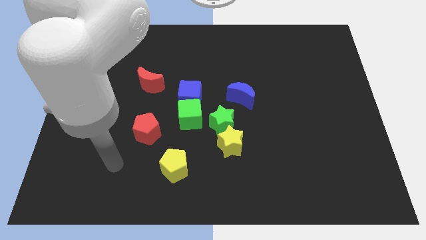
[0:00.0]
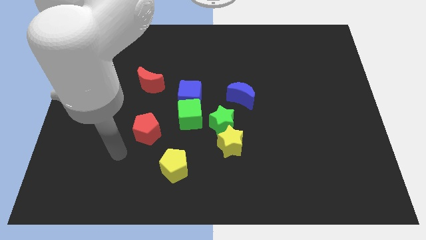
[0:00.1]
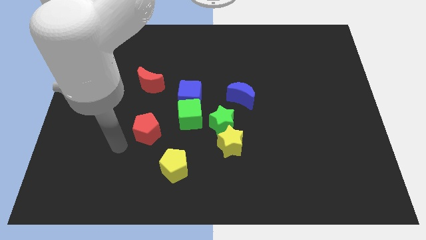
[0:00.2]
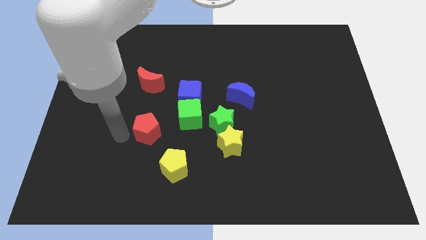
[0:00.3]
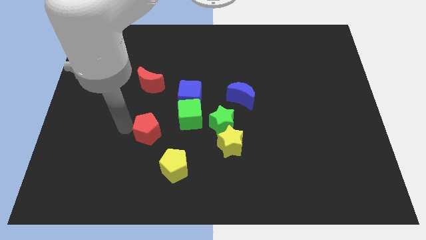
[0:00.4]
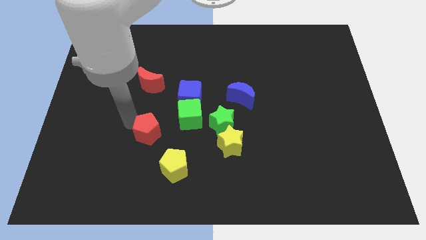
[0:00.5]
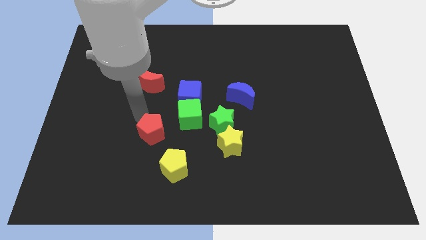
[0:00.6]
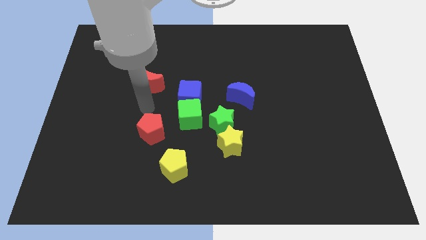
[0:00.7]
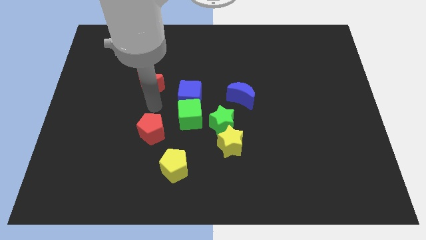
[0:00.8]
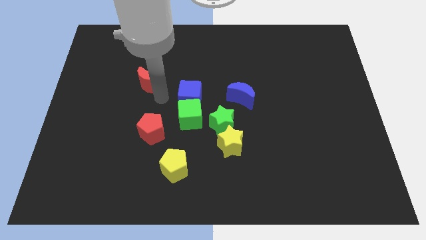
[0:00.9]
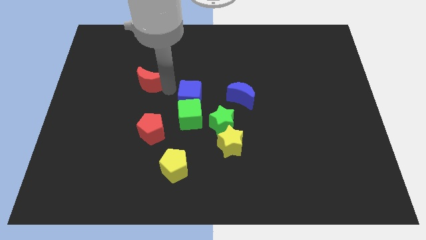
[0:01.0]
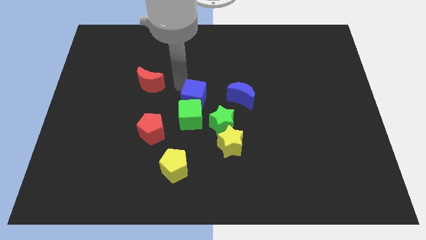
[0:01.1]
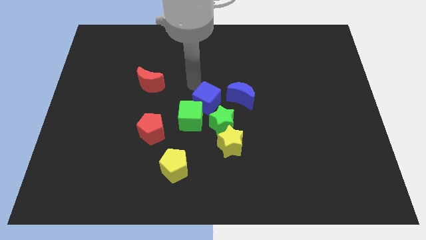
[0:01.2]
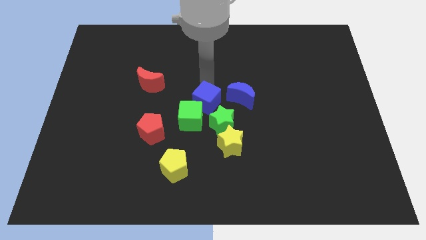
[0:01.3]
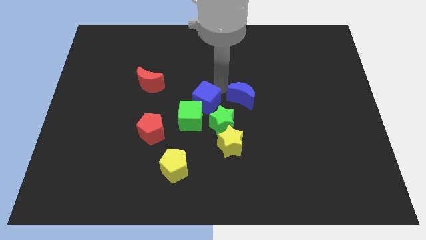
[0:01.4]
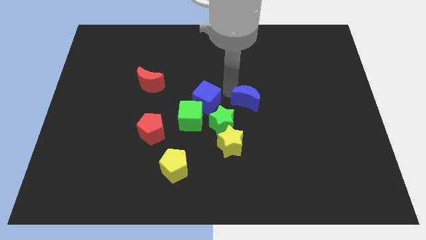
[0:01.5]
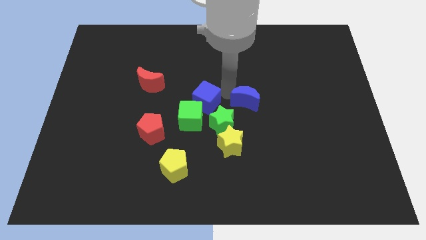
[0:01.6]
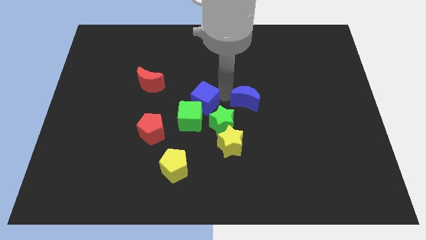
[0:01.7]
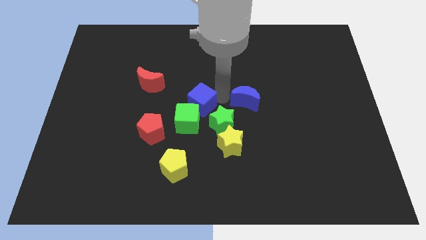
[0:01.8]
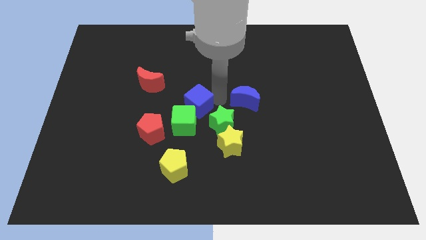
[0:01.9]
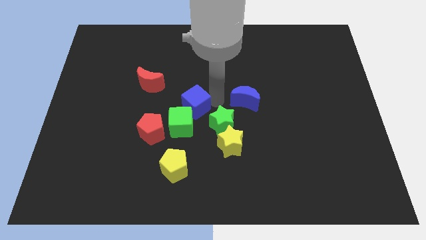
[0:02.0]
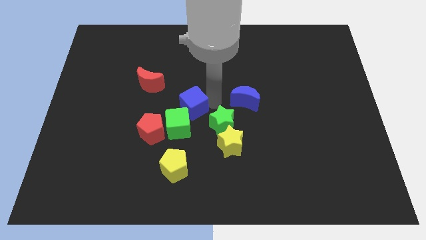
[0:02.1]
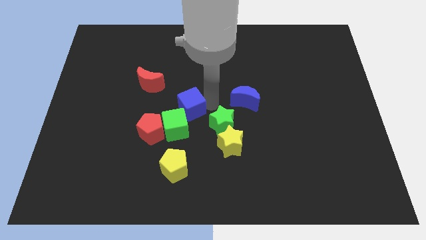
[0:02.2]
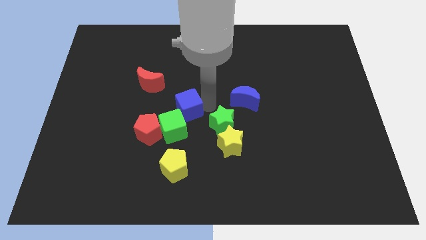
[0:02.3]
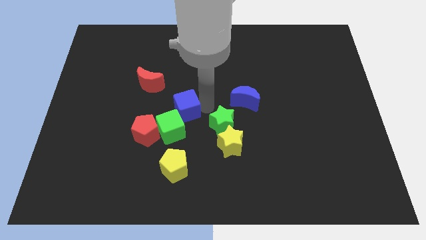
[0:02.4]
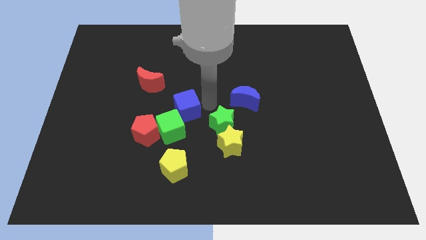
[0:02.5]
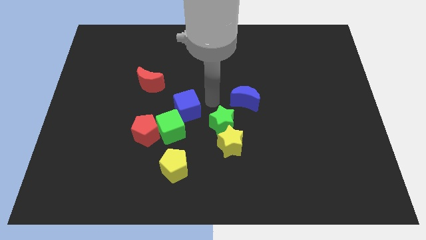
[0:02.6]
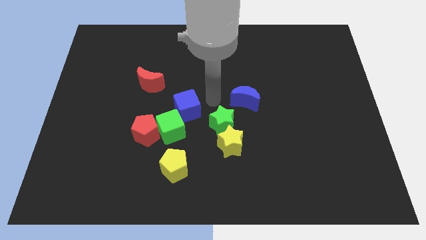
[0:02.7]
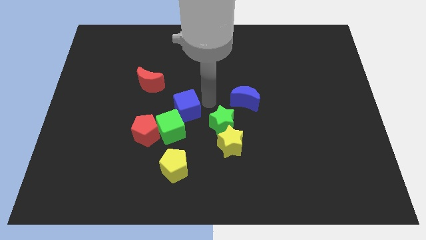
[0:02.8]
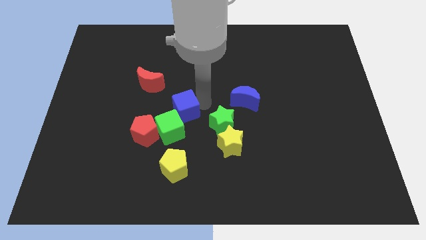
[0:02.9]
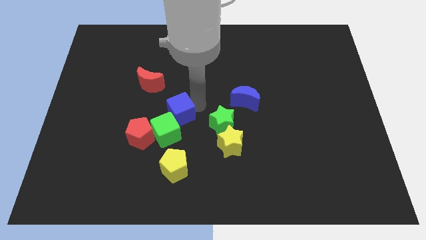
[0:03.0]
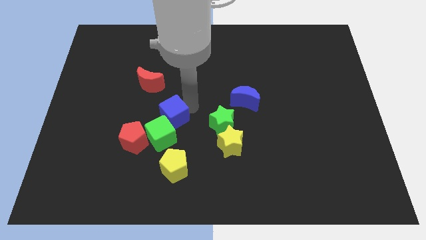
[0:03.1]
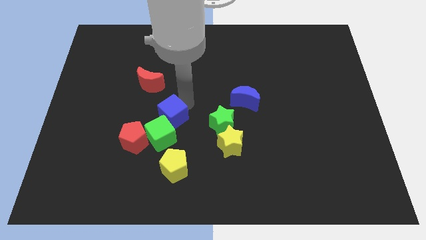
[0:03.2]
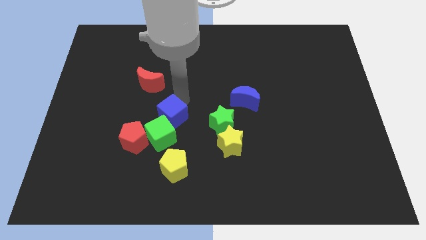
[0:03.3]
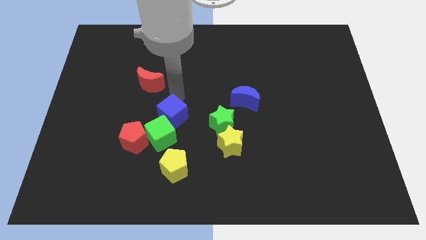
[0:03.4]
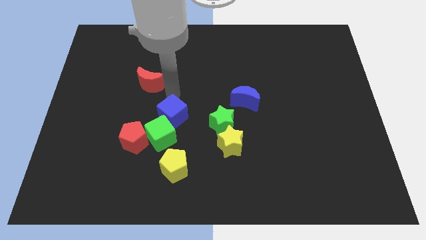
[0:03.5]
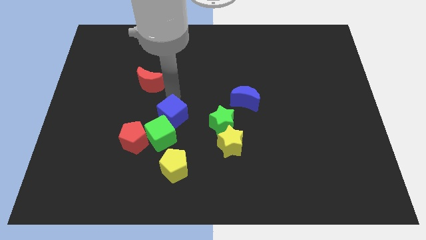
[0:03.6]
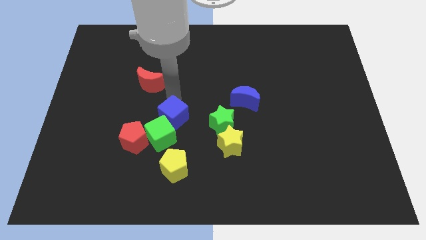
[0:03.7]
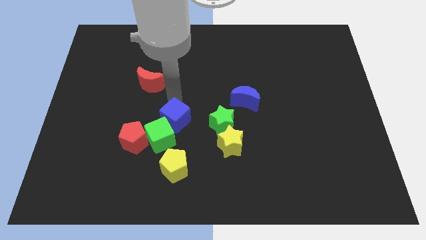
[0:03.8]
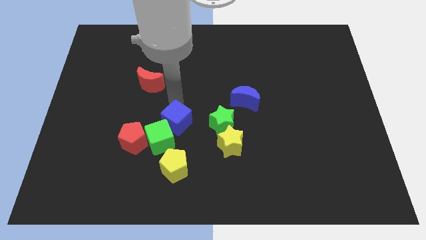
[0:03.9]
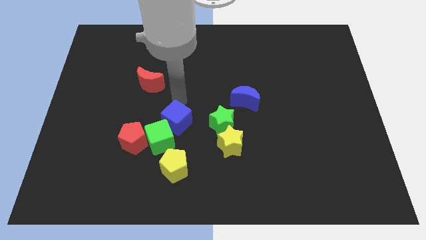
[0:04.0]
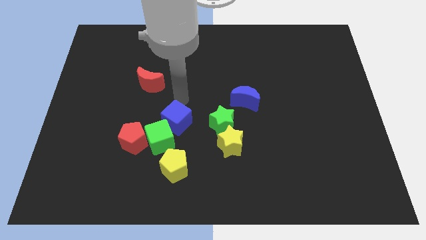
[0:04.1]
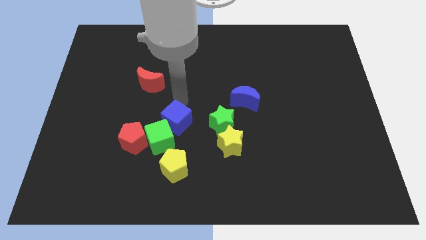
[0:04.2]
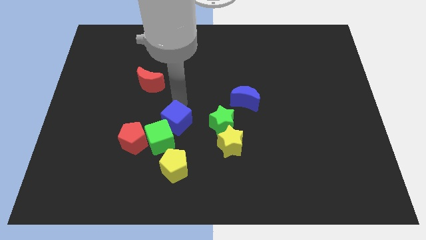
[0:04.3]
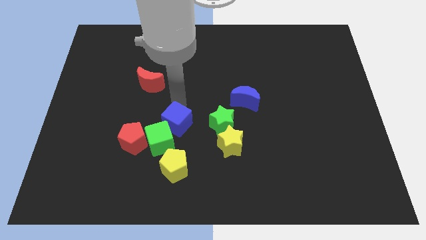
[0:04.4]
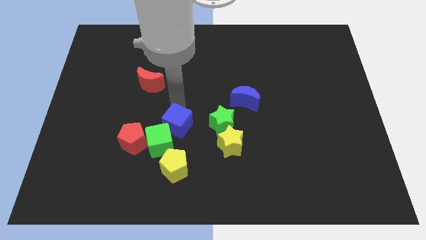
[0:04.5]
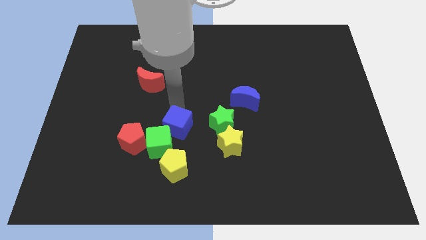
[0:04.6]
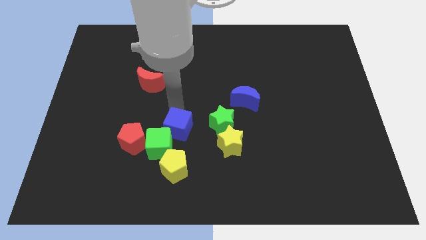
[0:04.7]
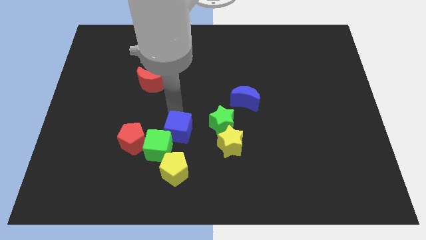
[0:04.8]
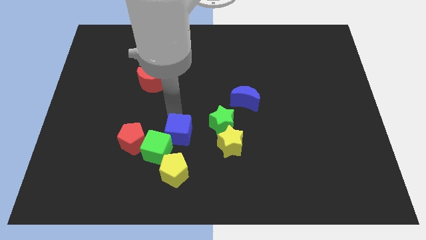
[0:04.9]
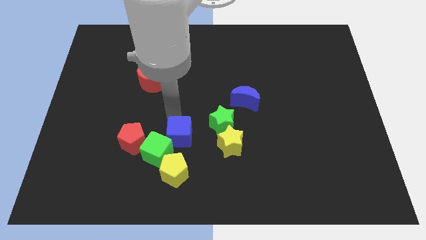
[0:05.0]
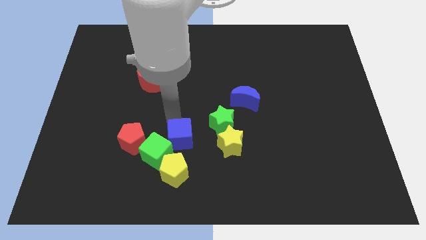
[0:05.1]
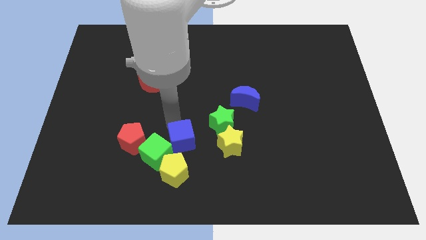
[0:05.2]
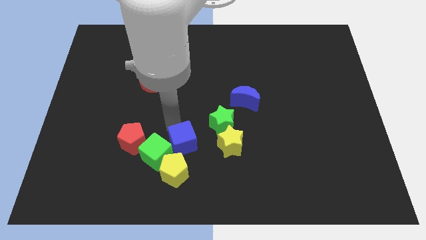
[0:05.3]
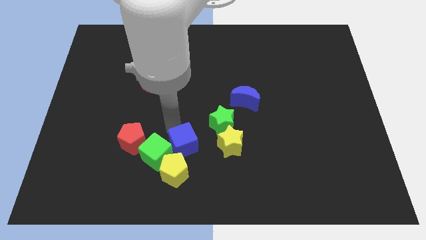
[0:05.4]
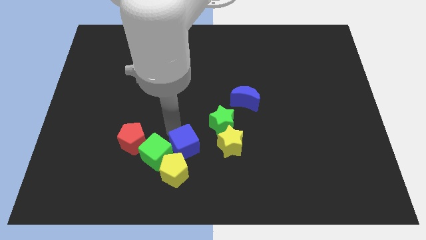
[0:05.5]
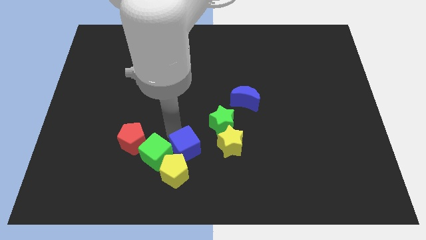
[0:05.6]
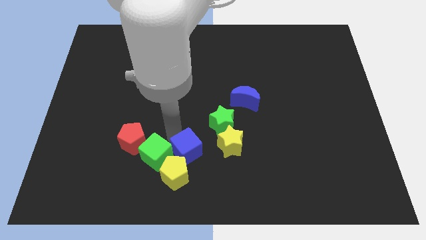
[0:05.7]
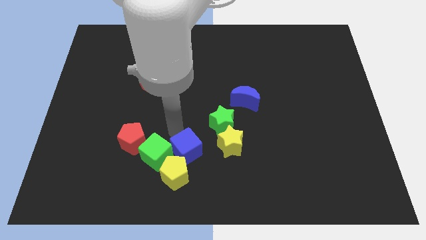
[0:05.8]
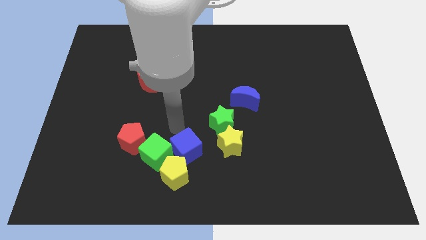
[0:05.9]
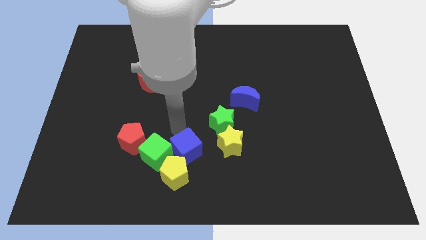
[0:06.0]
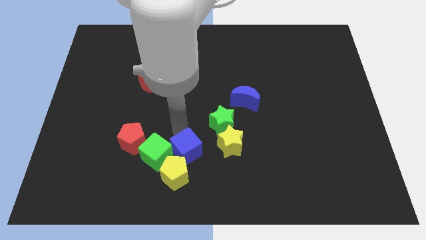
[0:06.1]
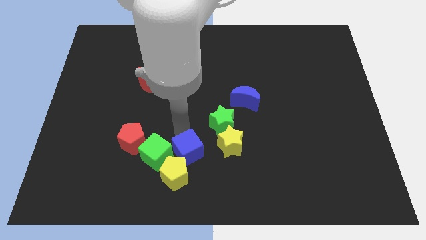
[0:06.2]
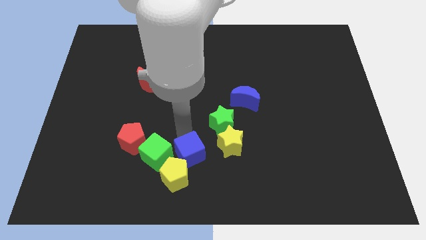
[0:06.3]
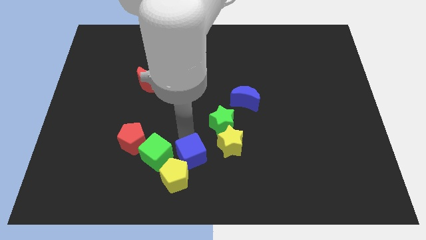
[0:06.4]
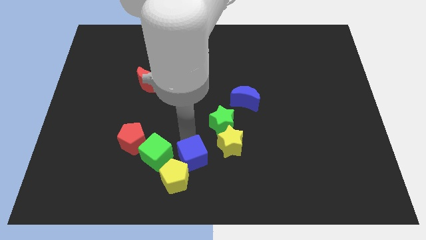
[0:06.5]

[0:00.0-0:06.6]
slide the blue cube to the bottom

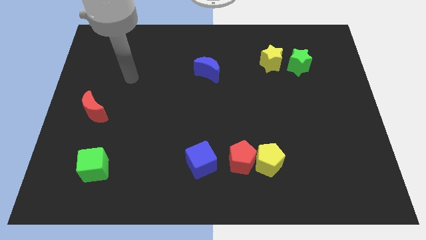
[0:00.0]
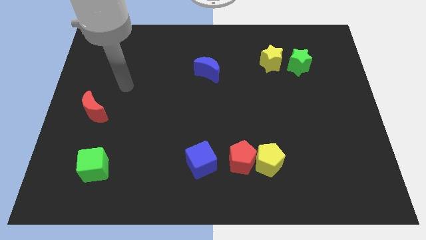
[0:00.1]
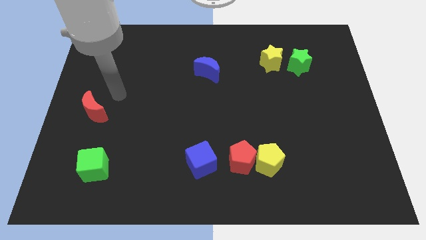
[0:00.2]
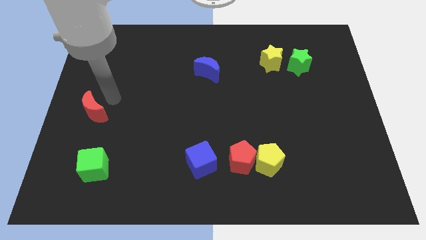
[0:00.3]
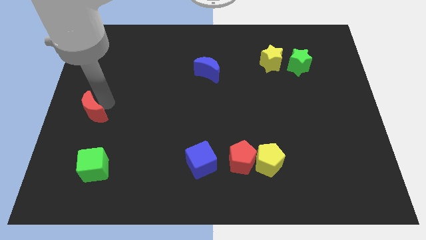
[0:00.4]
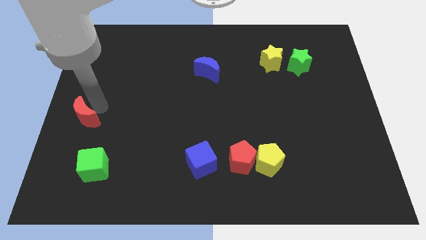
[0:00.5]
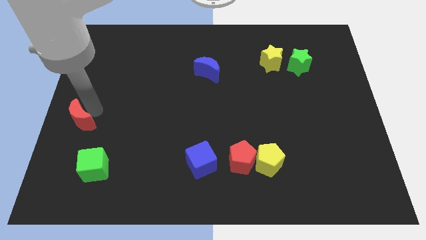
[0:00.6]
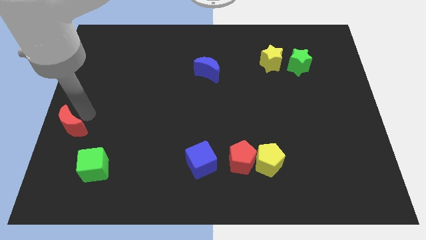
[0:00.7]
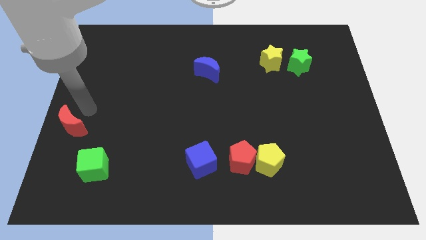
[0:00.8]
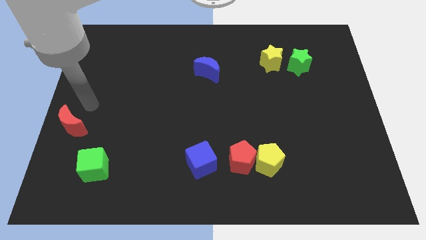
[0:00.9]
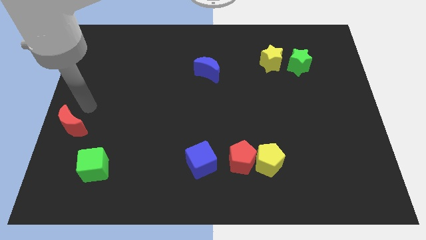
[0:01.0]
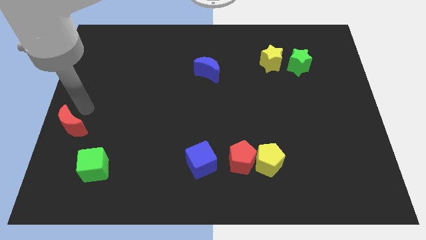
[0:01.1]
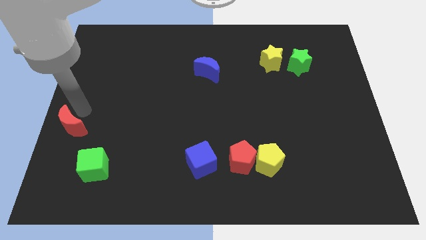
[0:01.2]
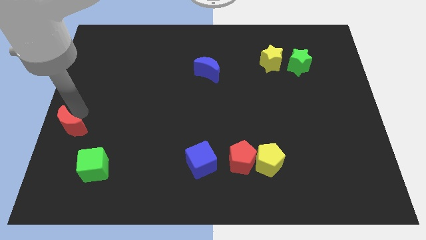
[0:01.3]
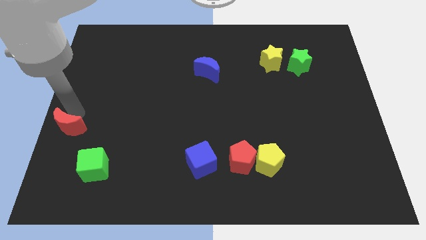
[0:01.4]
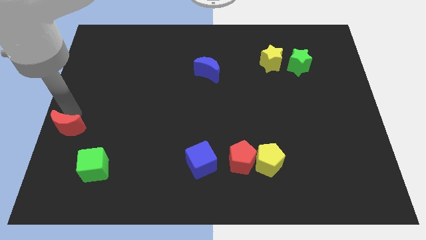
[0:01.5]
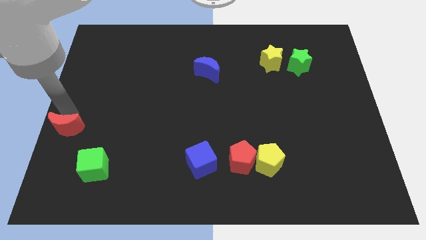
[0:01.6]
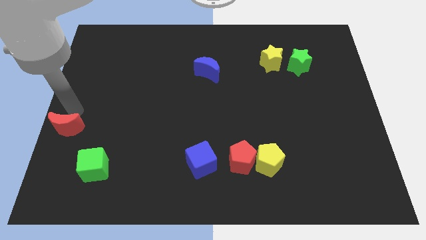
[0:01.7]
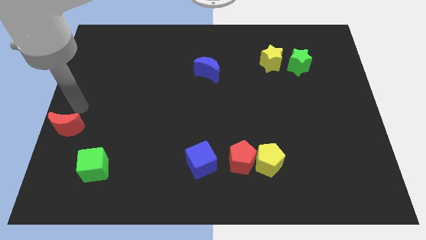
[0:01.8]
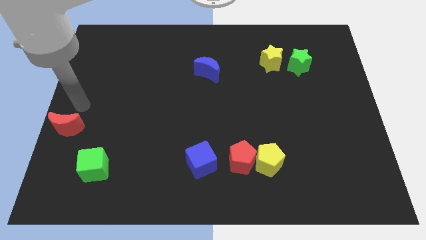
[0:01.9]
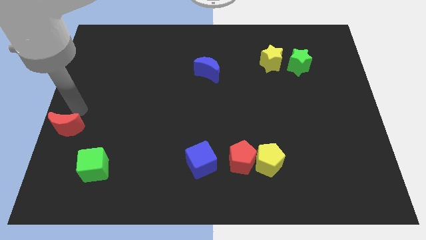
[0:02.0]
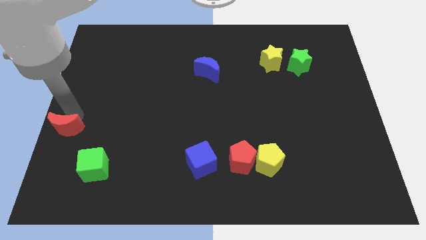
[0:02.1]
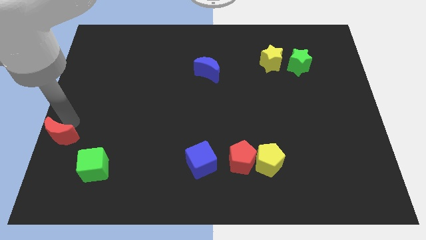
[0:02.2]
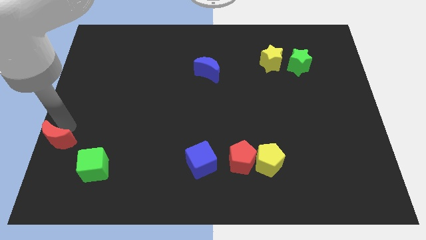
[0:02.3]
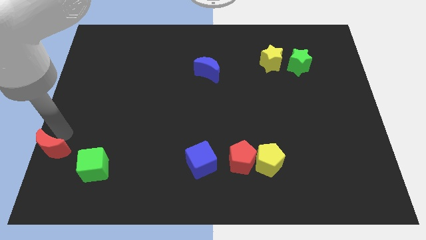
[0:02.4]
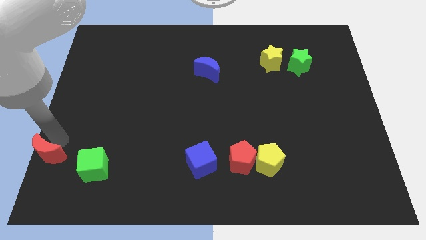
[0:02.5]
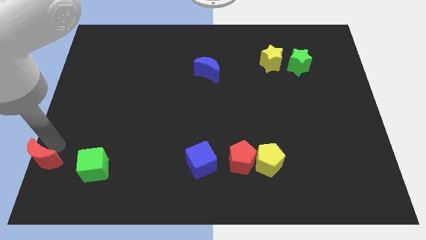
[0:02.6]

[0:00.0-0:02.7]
slide the red moon to the bottom left
